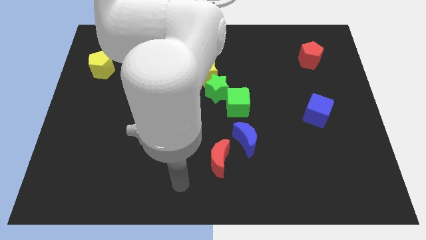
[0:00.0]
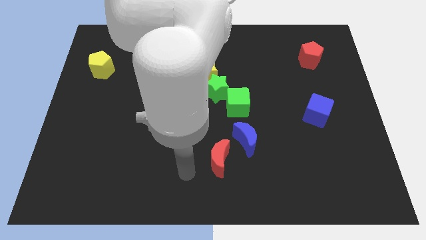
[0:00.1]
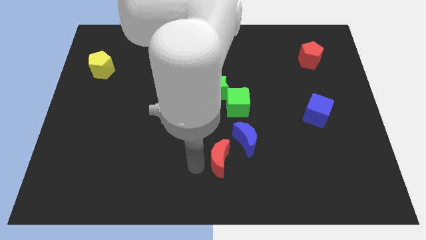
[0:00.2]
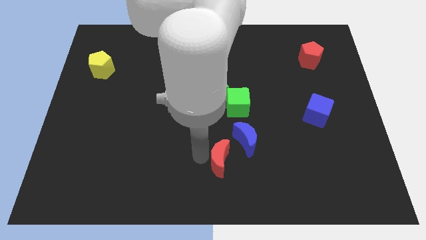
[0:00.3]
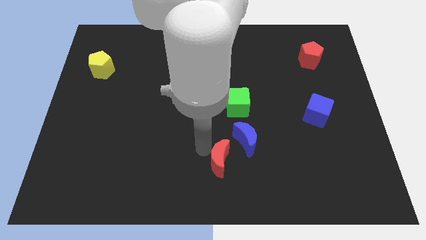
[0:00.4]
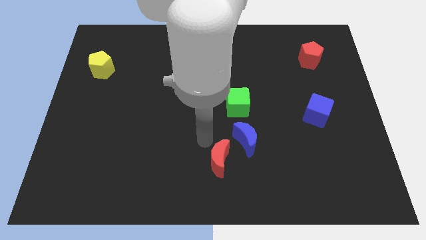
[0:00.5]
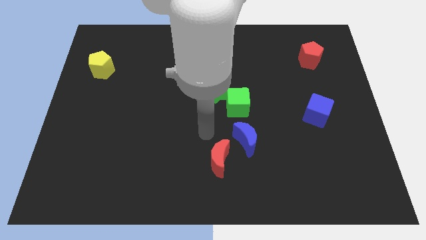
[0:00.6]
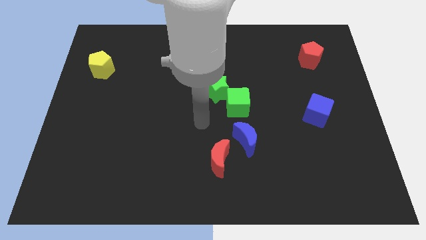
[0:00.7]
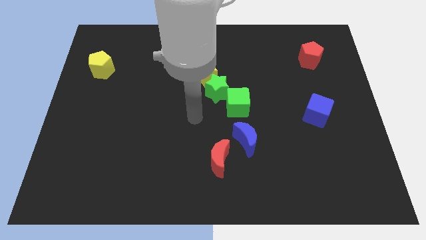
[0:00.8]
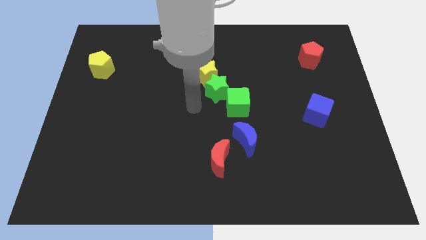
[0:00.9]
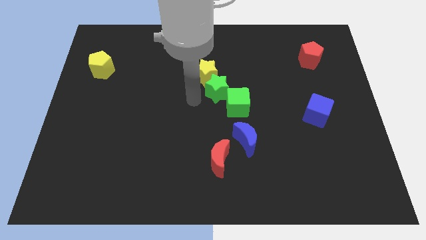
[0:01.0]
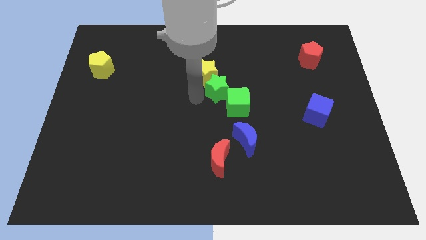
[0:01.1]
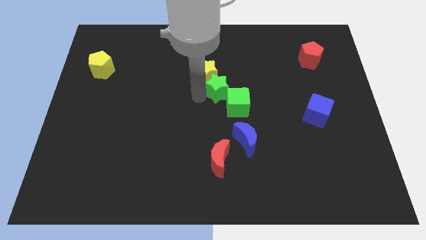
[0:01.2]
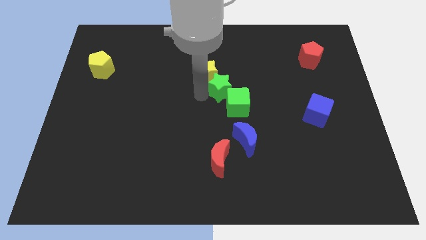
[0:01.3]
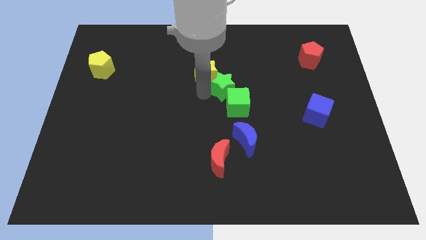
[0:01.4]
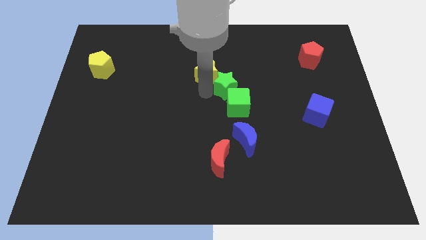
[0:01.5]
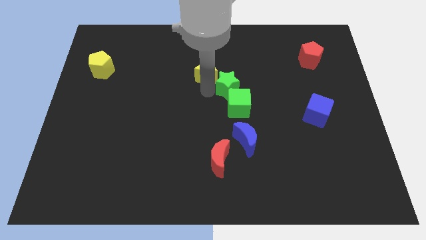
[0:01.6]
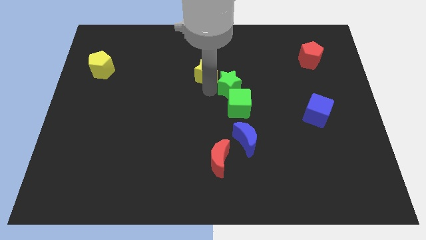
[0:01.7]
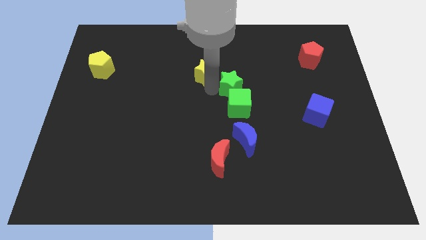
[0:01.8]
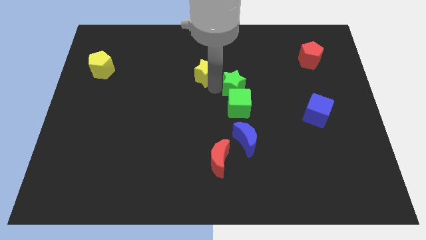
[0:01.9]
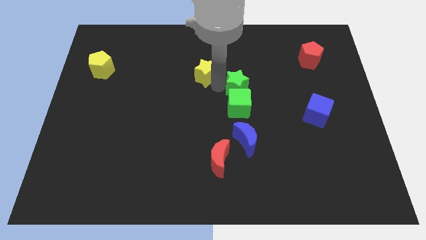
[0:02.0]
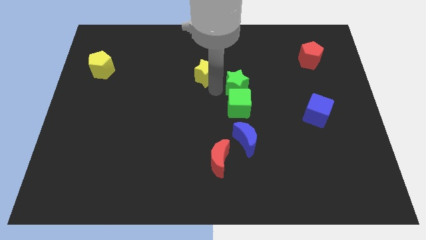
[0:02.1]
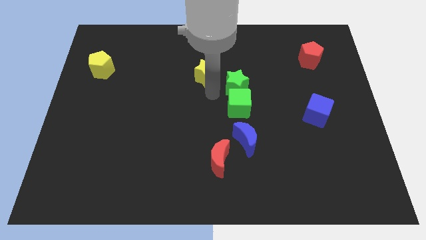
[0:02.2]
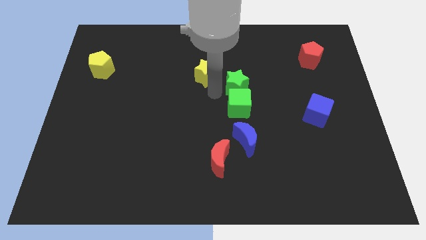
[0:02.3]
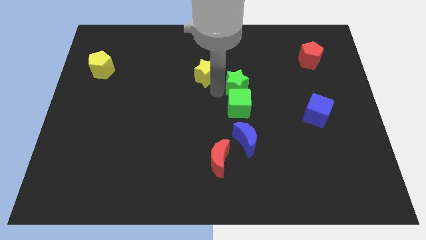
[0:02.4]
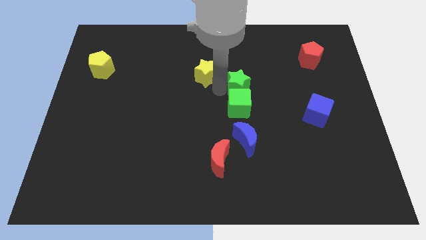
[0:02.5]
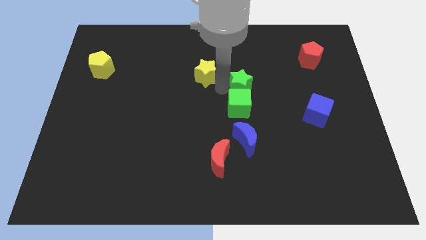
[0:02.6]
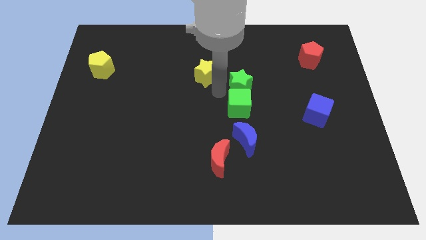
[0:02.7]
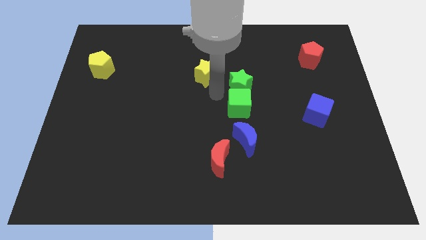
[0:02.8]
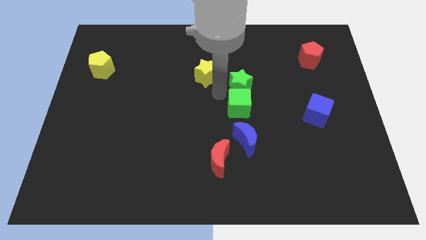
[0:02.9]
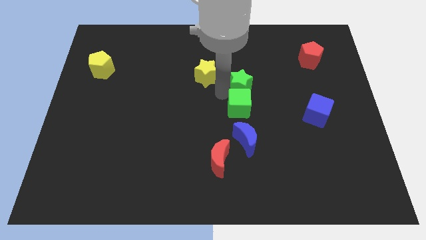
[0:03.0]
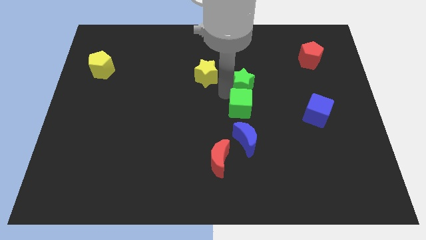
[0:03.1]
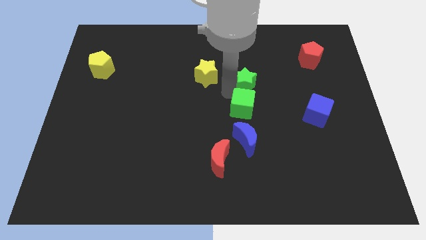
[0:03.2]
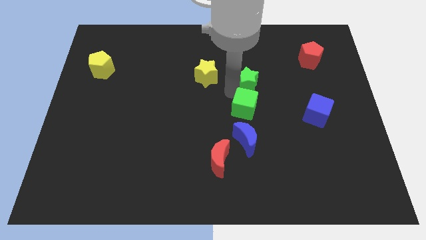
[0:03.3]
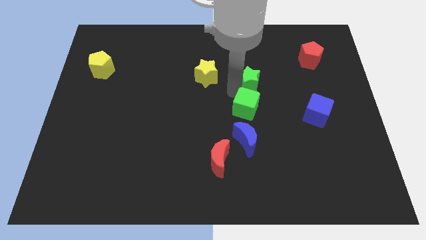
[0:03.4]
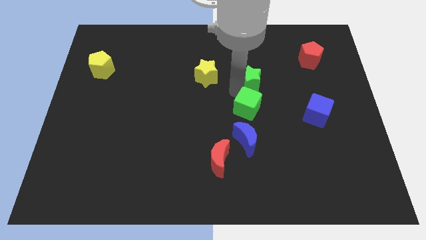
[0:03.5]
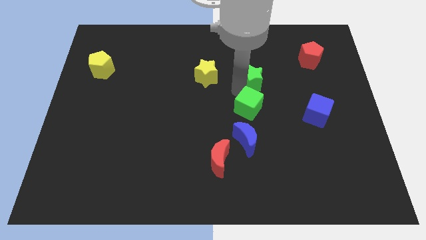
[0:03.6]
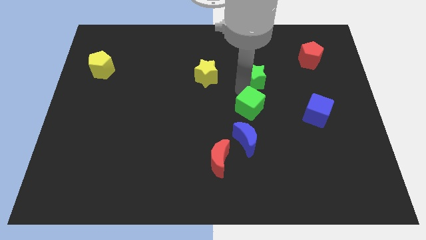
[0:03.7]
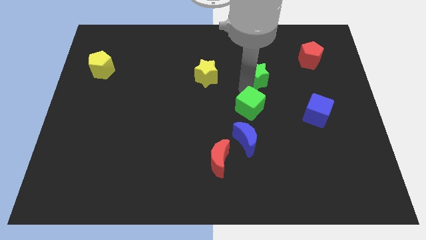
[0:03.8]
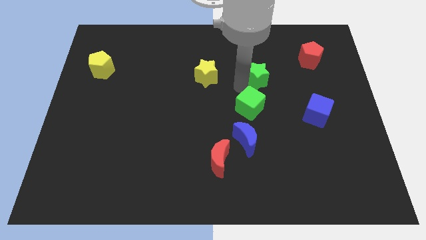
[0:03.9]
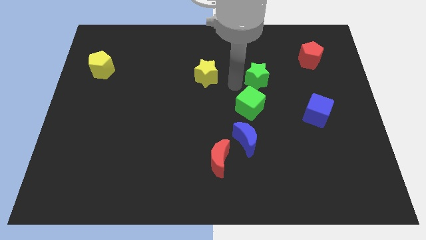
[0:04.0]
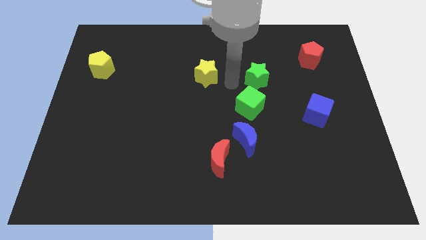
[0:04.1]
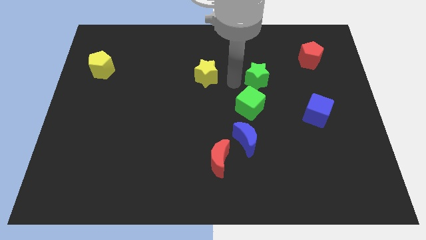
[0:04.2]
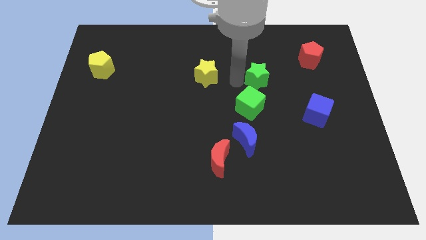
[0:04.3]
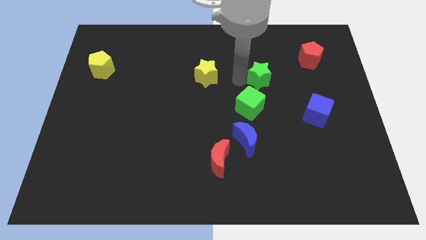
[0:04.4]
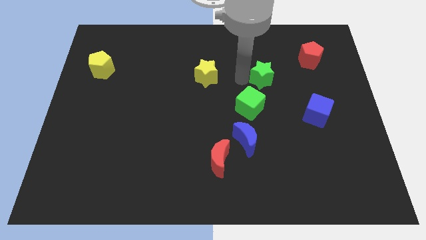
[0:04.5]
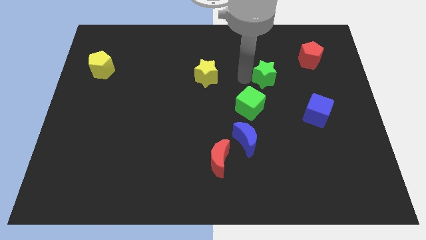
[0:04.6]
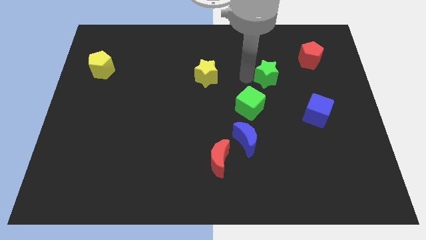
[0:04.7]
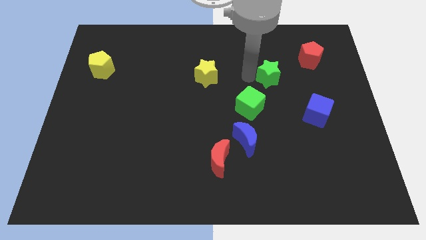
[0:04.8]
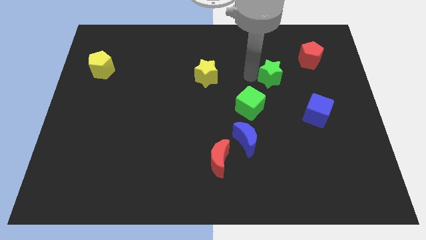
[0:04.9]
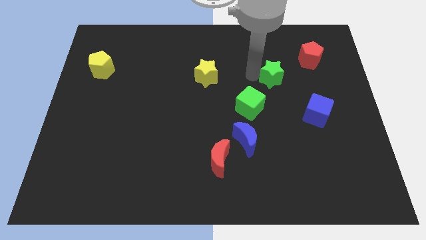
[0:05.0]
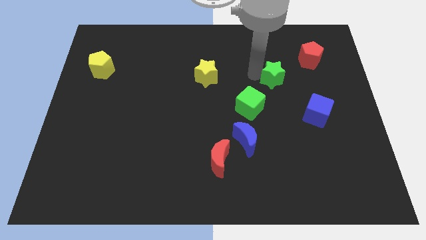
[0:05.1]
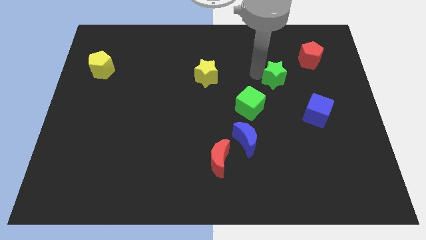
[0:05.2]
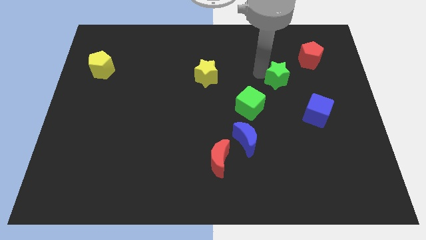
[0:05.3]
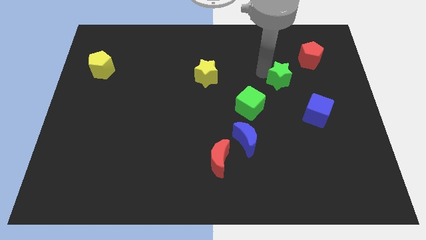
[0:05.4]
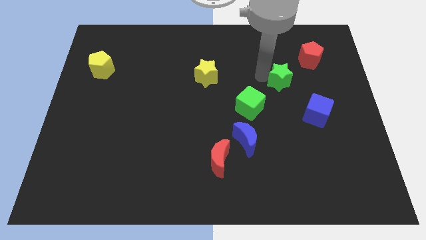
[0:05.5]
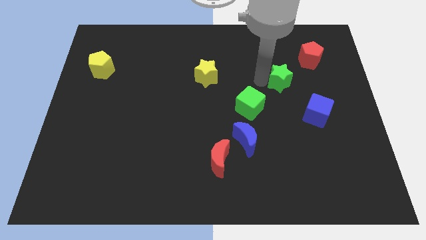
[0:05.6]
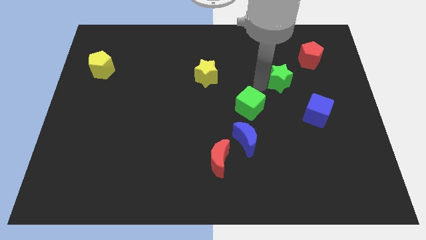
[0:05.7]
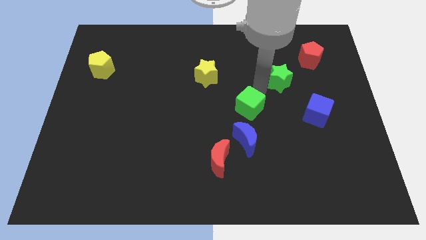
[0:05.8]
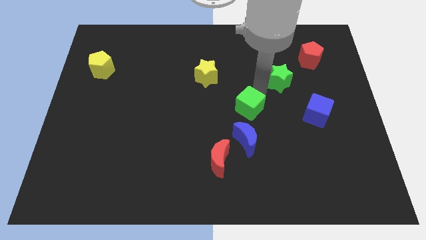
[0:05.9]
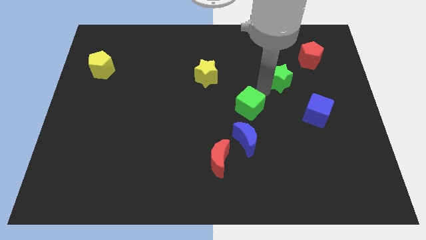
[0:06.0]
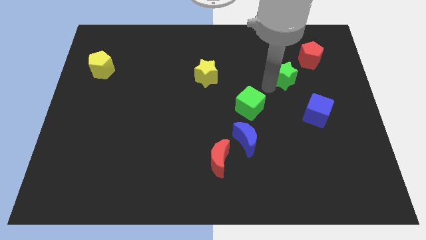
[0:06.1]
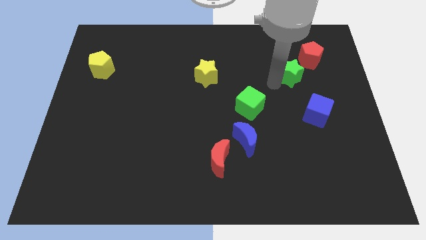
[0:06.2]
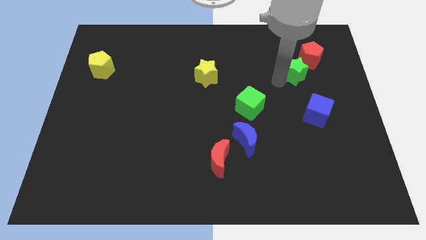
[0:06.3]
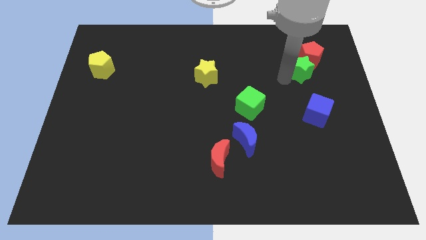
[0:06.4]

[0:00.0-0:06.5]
move the green star next to the red pentagon

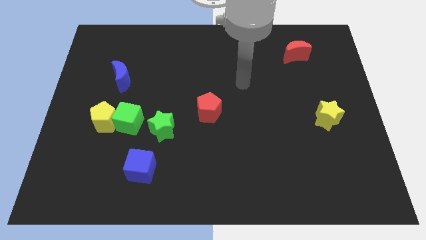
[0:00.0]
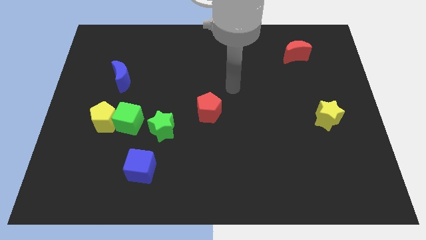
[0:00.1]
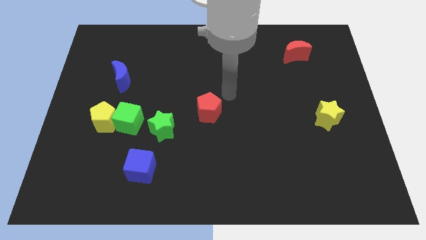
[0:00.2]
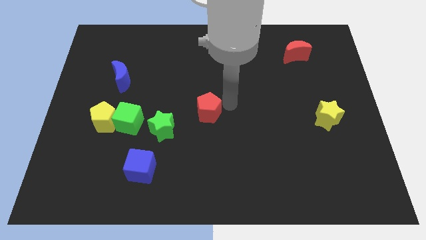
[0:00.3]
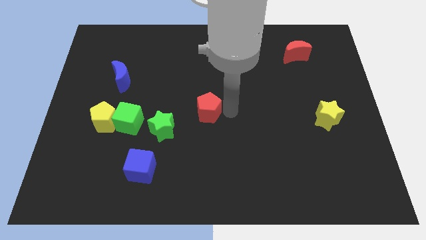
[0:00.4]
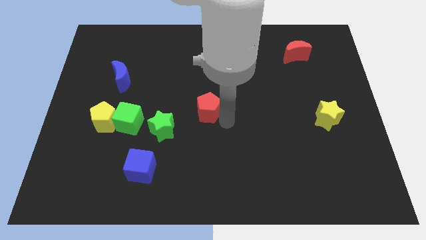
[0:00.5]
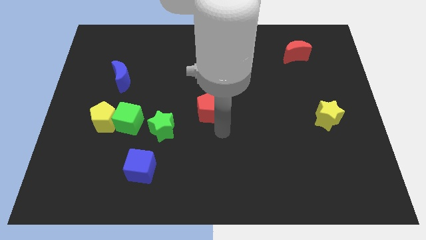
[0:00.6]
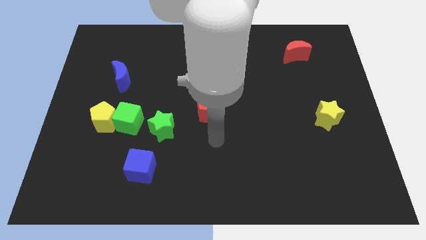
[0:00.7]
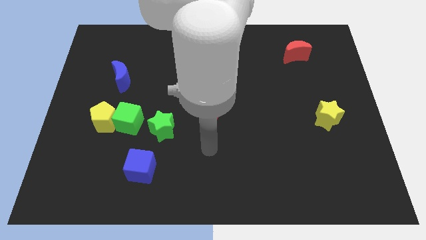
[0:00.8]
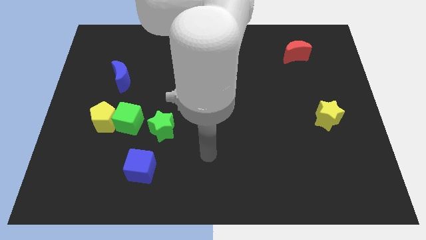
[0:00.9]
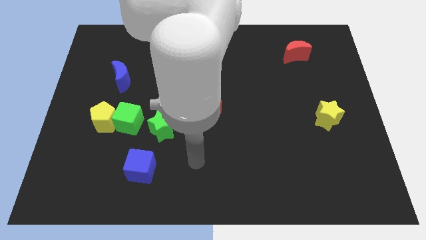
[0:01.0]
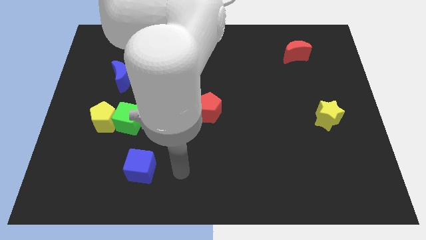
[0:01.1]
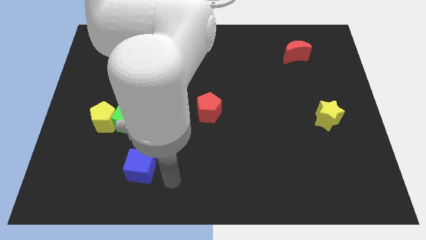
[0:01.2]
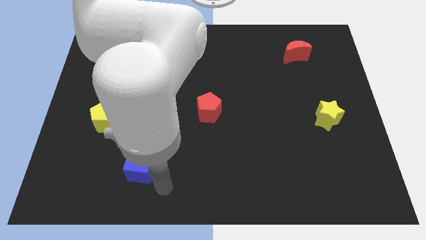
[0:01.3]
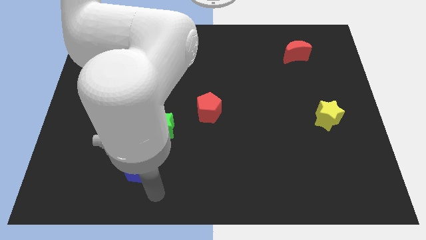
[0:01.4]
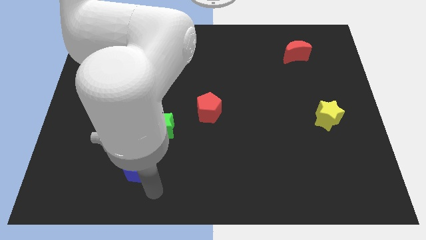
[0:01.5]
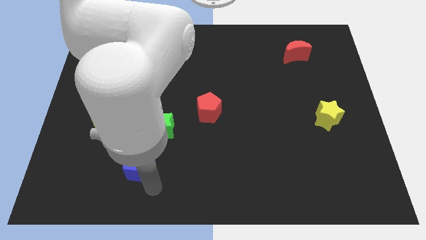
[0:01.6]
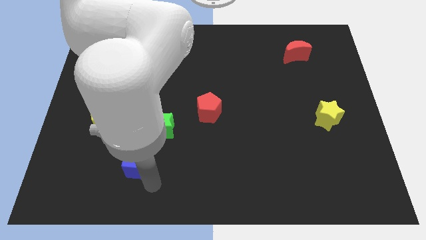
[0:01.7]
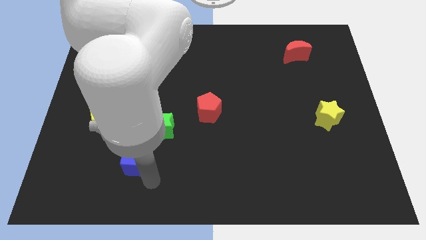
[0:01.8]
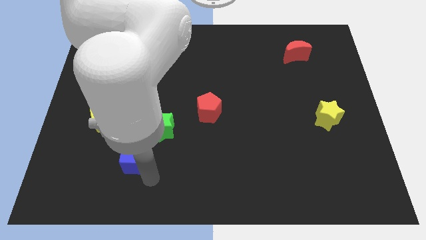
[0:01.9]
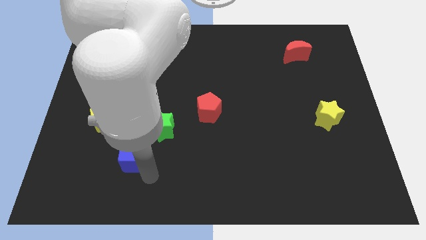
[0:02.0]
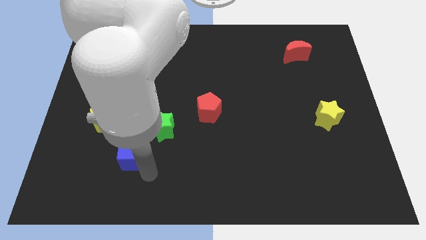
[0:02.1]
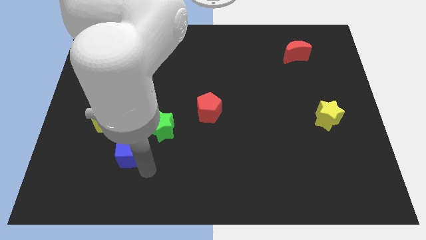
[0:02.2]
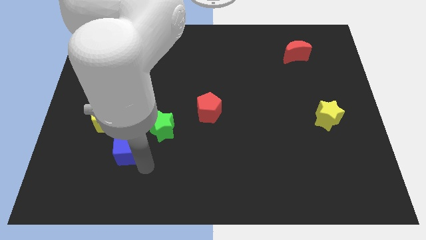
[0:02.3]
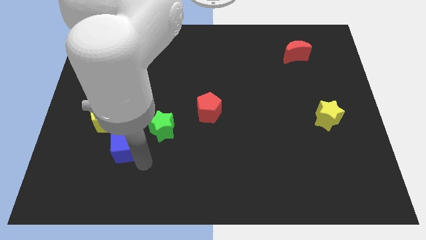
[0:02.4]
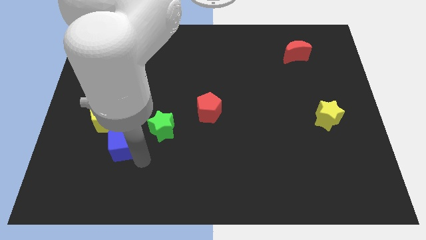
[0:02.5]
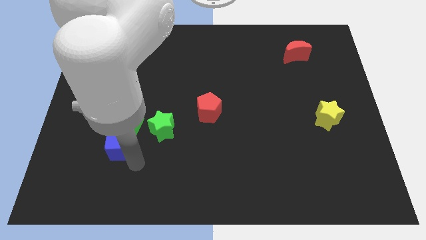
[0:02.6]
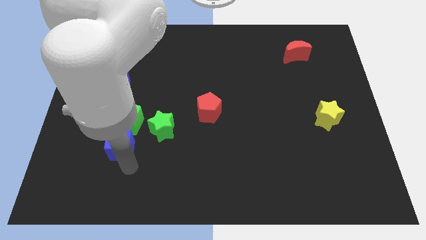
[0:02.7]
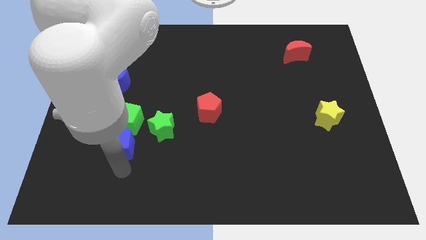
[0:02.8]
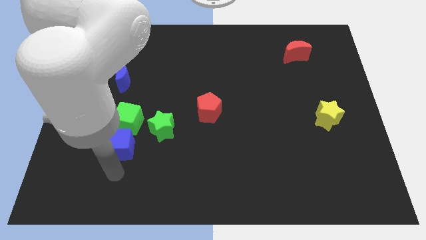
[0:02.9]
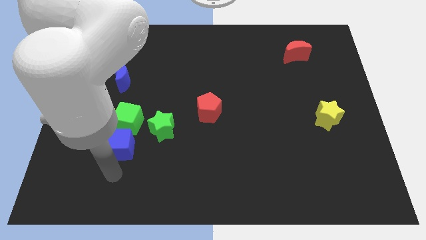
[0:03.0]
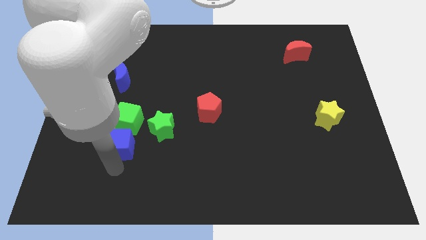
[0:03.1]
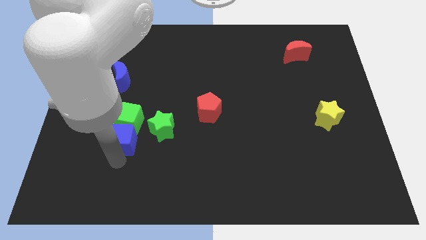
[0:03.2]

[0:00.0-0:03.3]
move the blue cube towards the green cube
